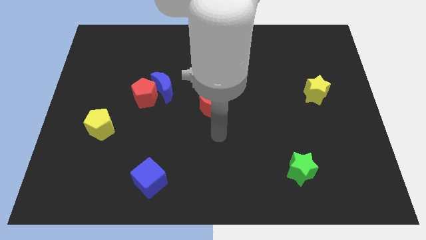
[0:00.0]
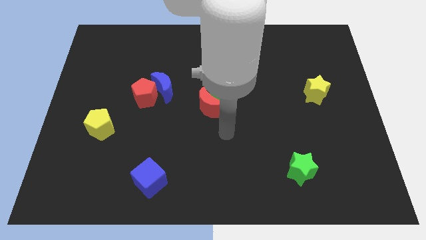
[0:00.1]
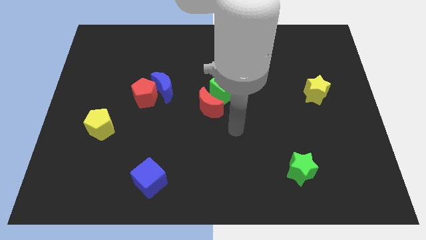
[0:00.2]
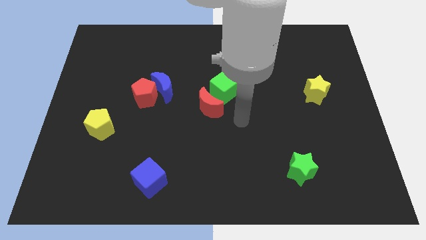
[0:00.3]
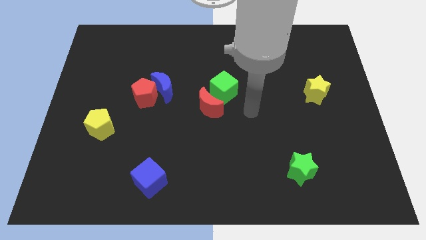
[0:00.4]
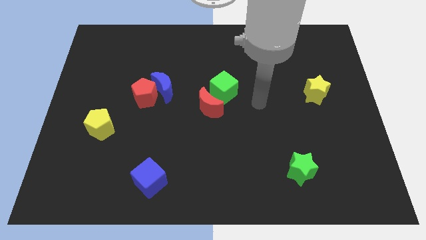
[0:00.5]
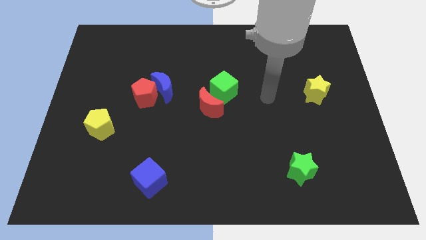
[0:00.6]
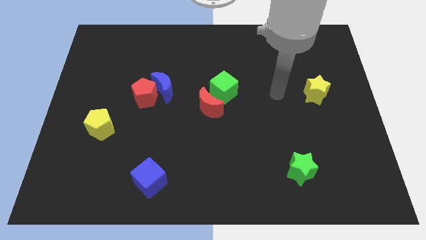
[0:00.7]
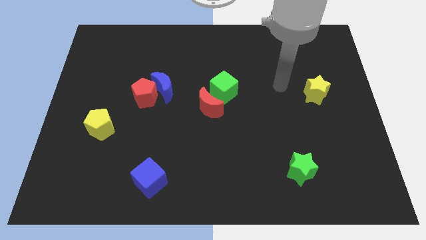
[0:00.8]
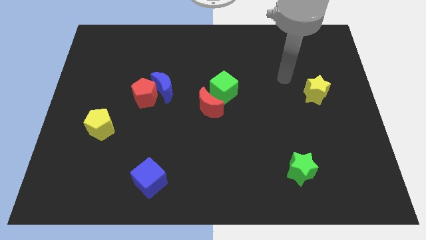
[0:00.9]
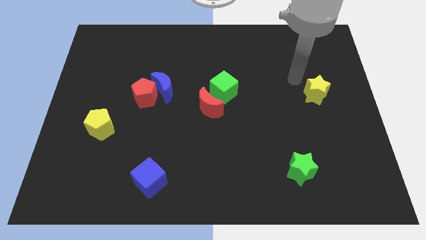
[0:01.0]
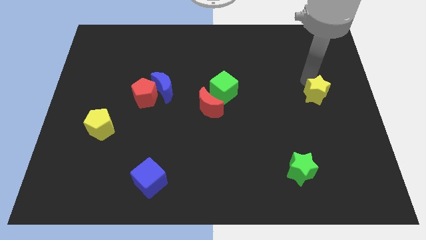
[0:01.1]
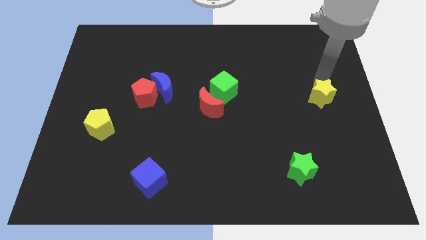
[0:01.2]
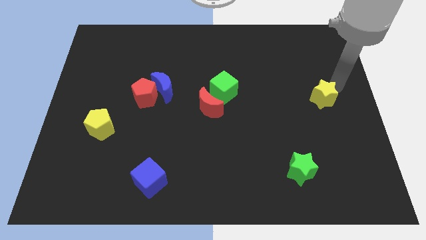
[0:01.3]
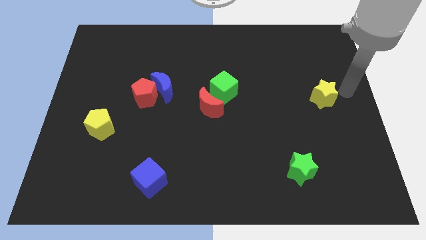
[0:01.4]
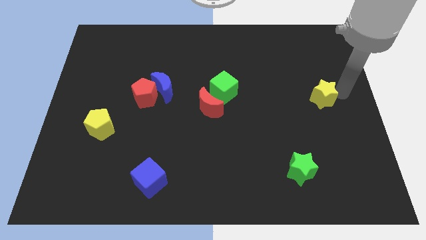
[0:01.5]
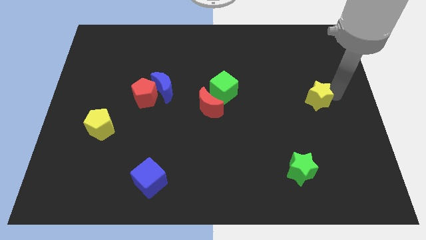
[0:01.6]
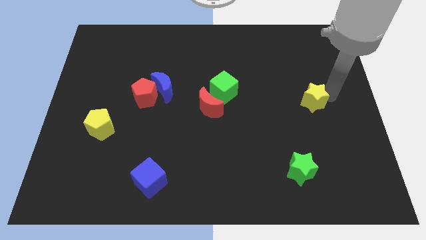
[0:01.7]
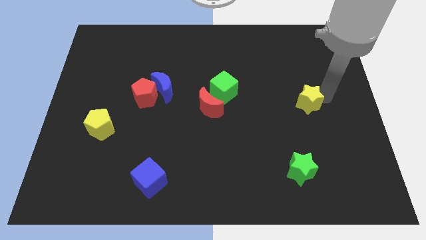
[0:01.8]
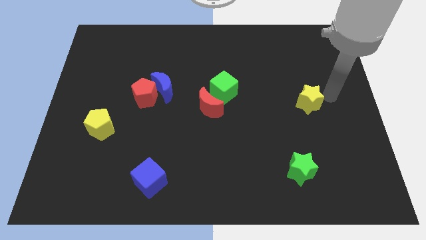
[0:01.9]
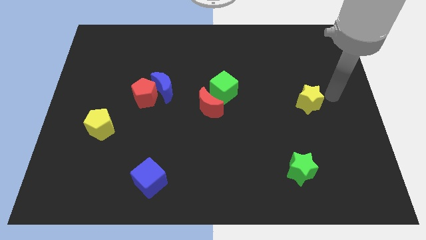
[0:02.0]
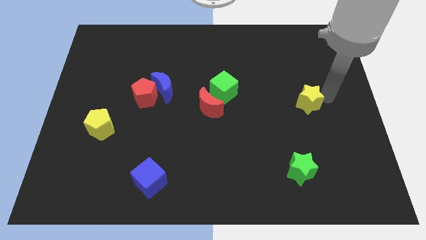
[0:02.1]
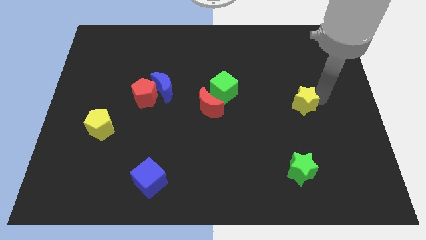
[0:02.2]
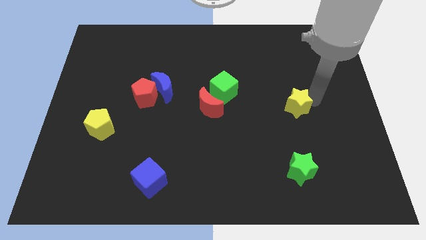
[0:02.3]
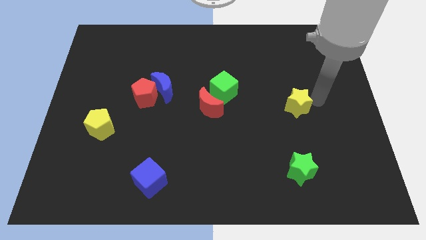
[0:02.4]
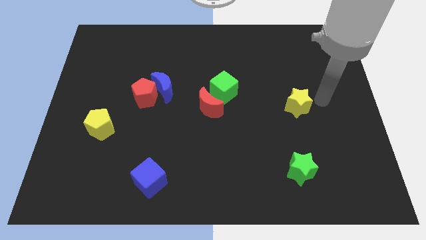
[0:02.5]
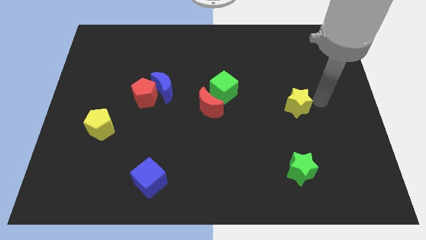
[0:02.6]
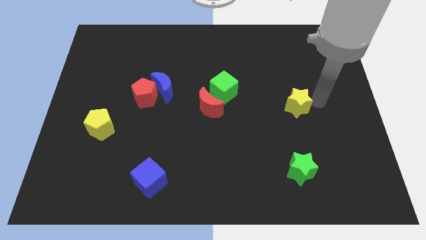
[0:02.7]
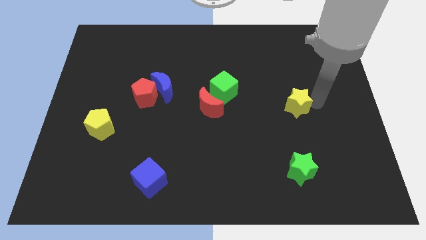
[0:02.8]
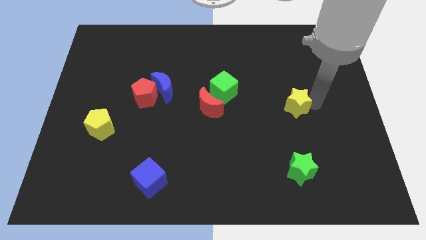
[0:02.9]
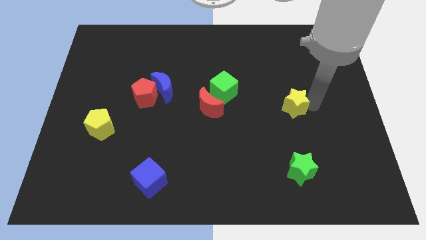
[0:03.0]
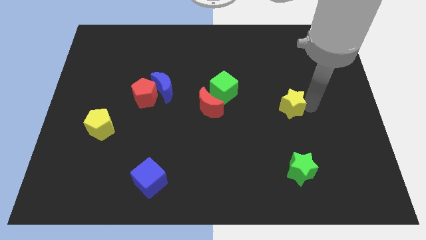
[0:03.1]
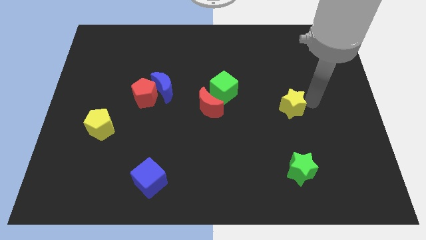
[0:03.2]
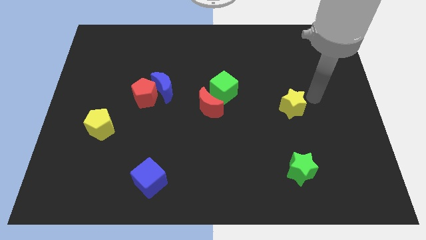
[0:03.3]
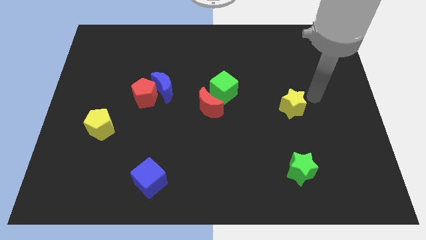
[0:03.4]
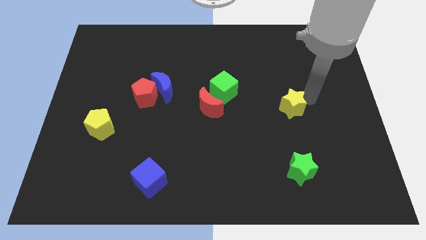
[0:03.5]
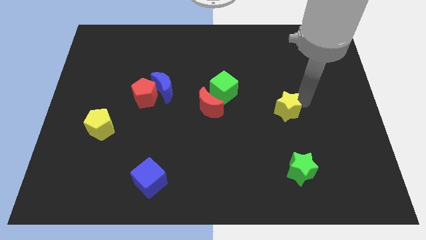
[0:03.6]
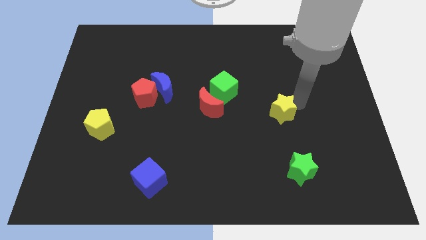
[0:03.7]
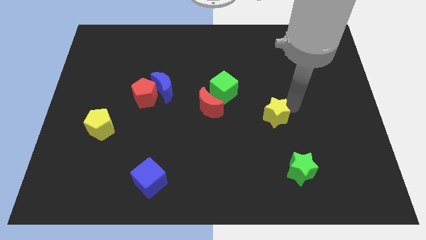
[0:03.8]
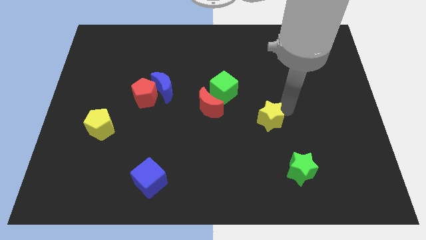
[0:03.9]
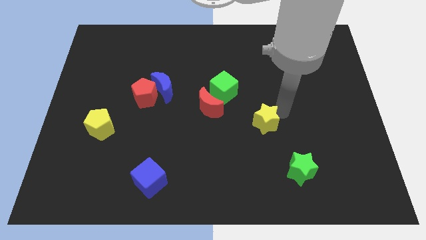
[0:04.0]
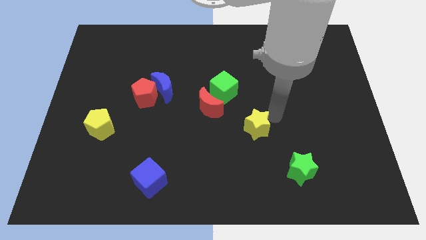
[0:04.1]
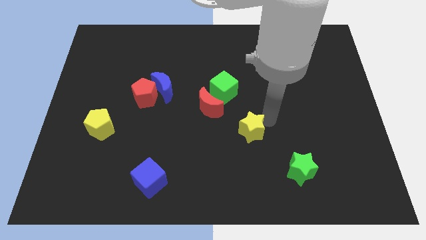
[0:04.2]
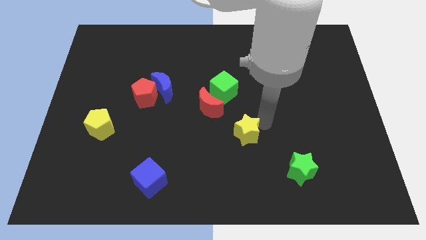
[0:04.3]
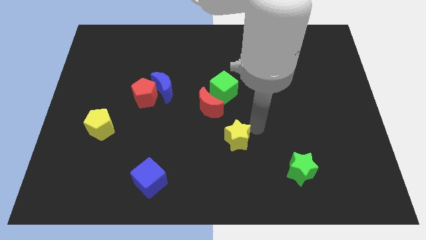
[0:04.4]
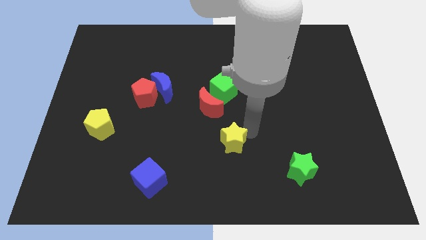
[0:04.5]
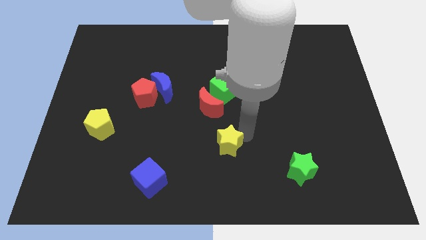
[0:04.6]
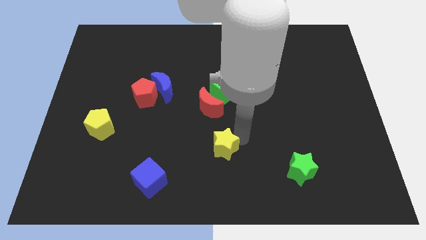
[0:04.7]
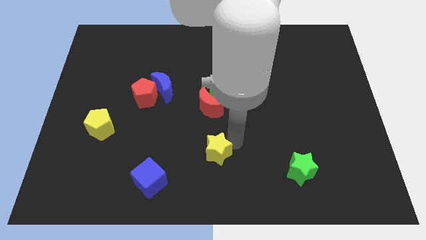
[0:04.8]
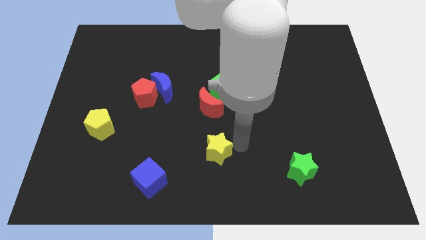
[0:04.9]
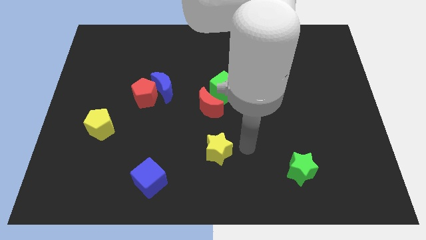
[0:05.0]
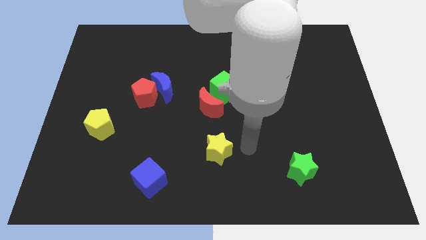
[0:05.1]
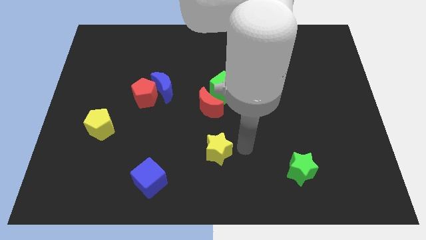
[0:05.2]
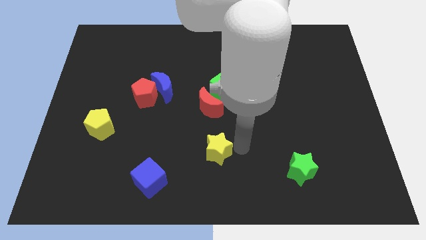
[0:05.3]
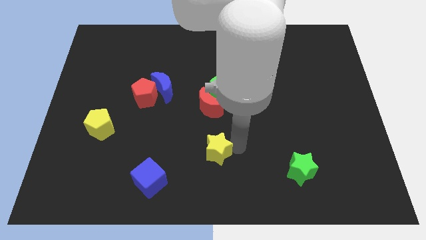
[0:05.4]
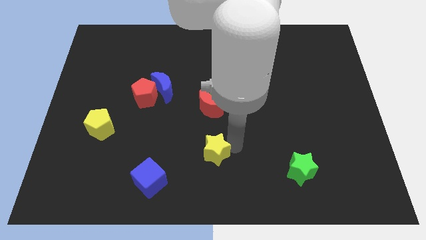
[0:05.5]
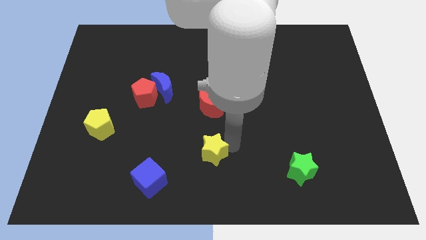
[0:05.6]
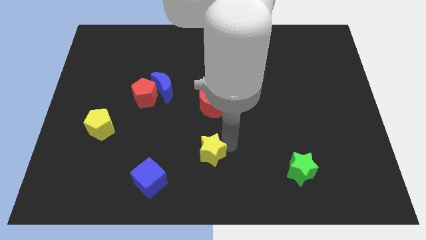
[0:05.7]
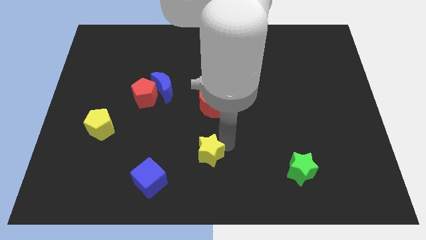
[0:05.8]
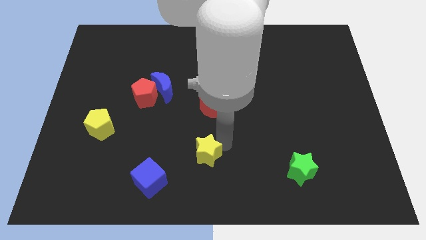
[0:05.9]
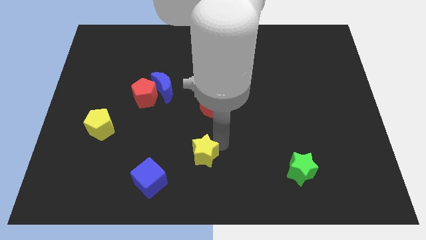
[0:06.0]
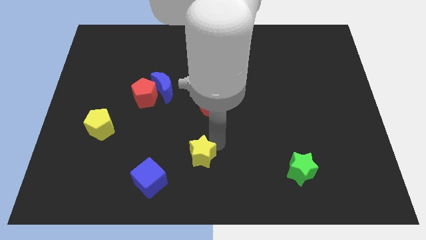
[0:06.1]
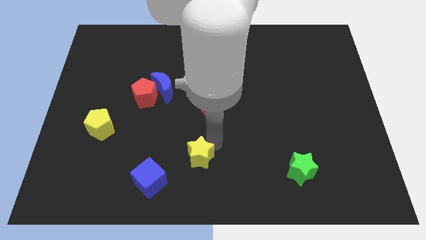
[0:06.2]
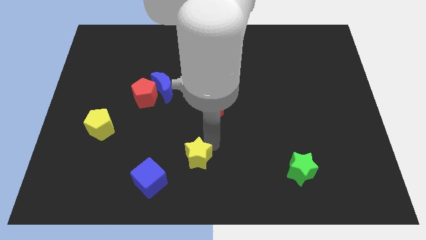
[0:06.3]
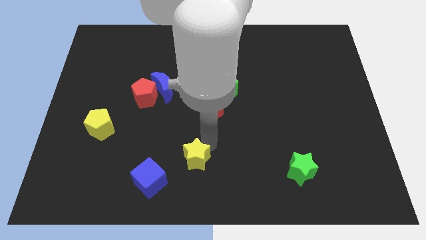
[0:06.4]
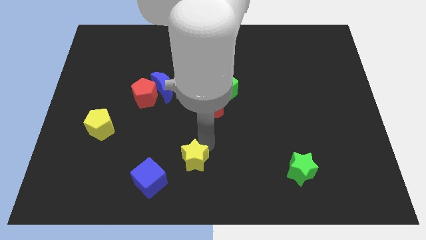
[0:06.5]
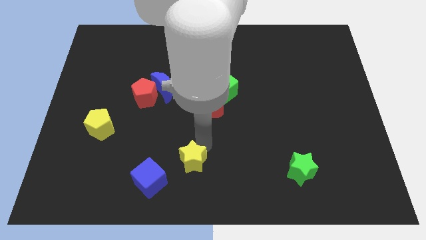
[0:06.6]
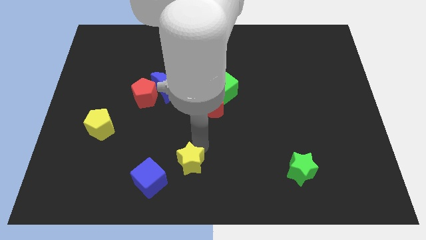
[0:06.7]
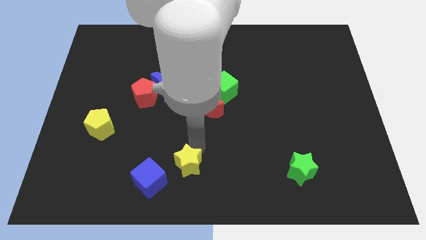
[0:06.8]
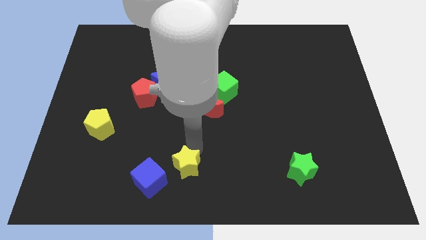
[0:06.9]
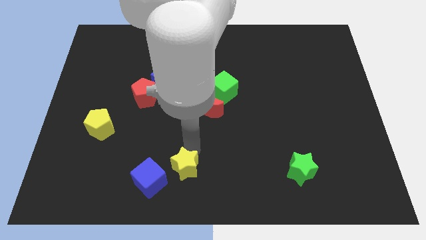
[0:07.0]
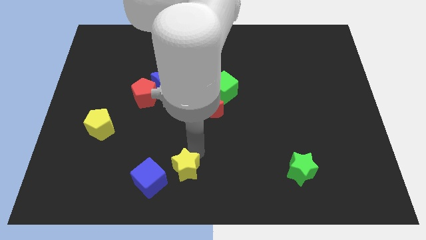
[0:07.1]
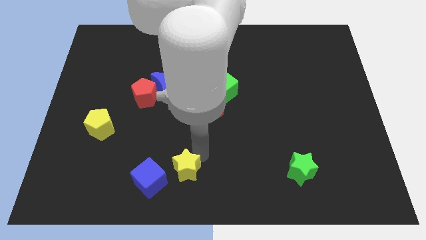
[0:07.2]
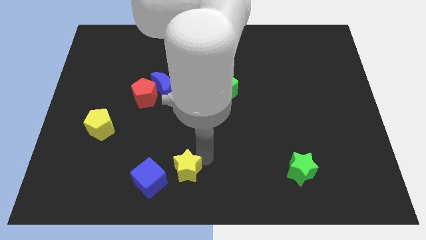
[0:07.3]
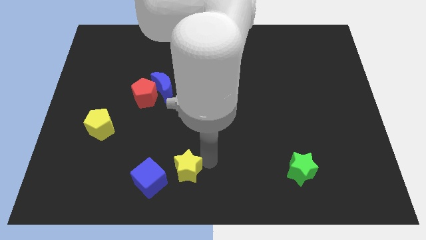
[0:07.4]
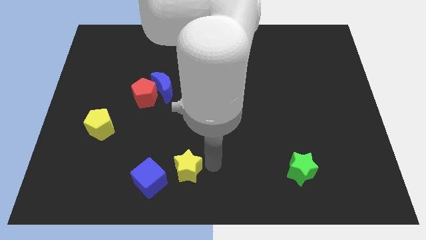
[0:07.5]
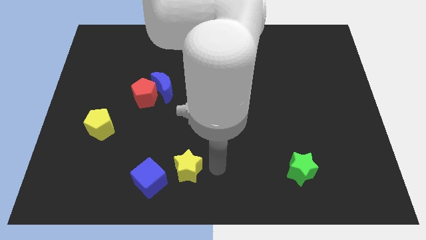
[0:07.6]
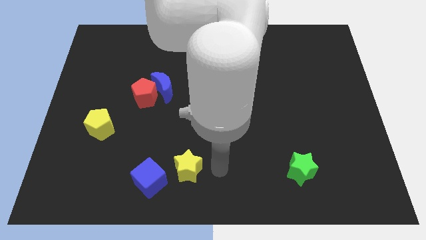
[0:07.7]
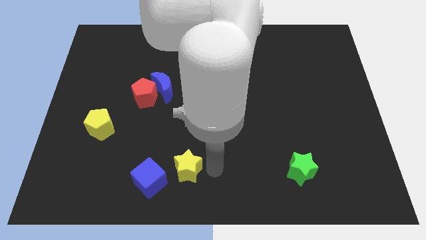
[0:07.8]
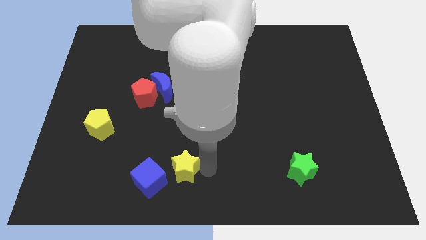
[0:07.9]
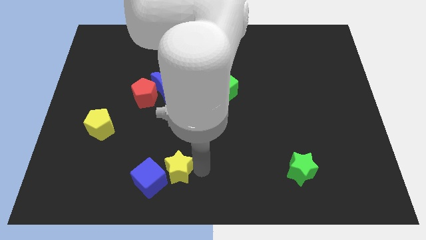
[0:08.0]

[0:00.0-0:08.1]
slide the yellow star towards the blue cube
